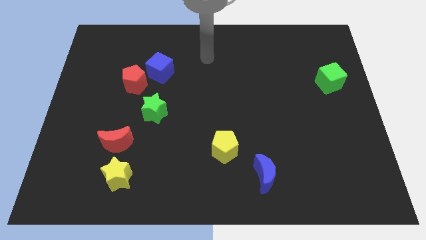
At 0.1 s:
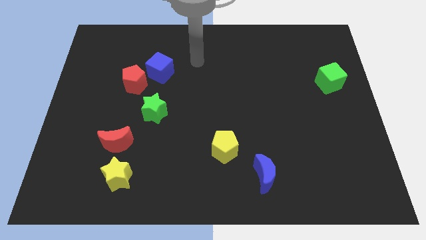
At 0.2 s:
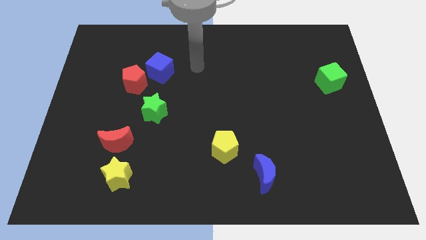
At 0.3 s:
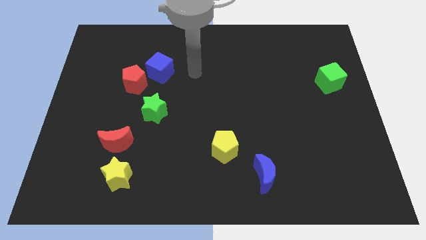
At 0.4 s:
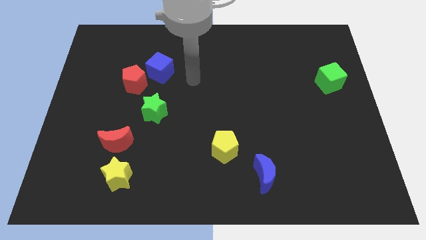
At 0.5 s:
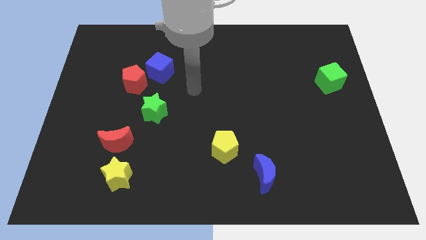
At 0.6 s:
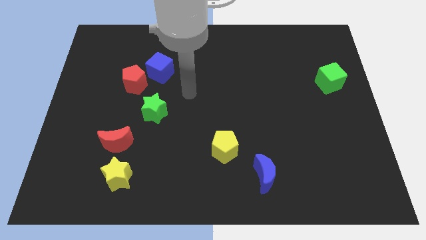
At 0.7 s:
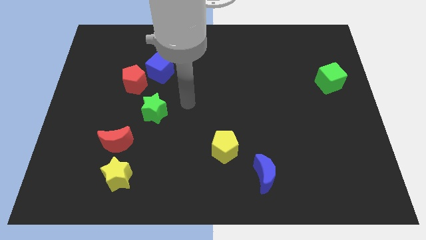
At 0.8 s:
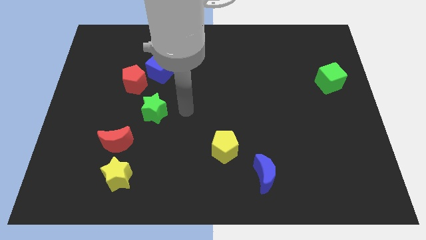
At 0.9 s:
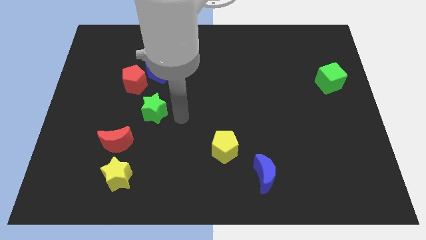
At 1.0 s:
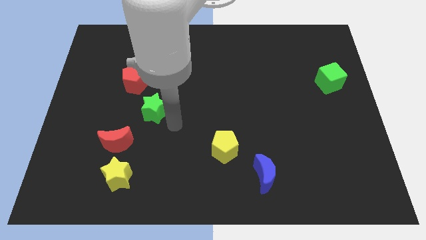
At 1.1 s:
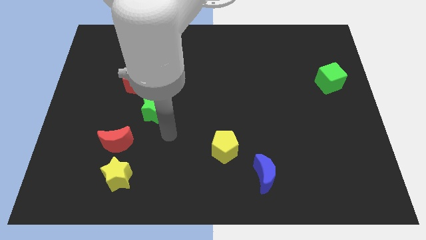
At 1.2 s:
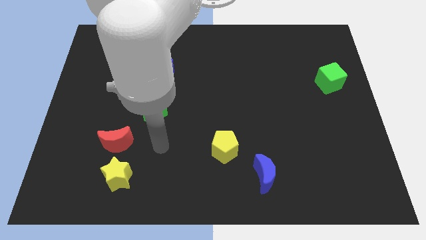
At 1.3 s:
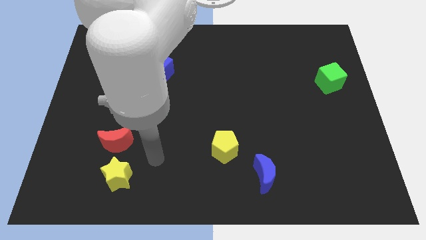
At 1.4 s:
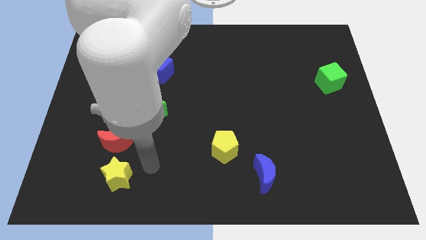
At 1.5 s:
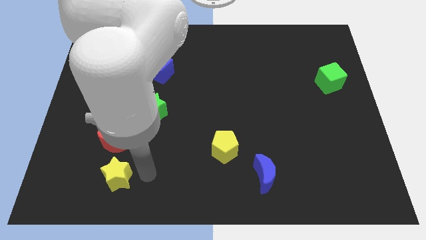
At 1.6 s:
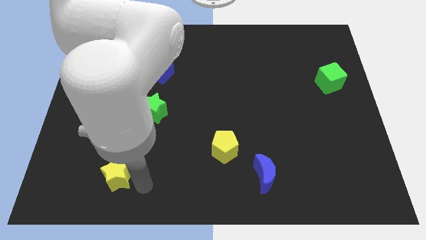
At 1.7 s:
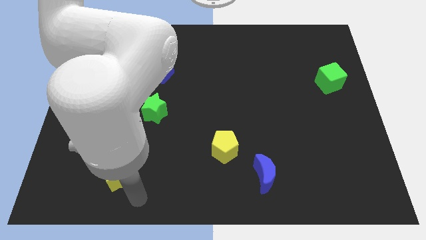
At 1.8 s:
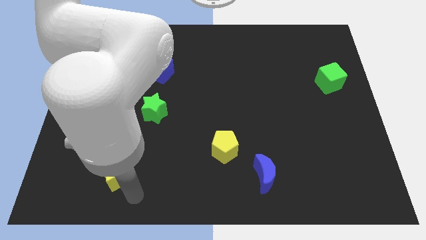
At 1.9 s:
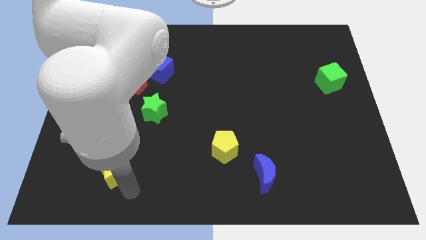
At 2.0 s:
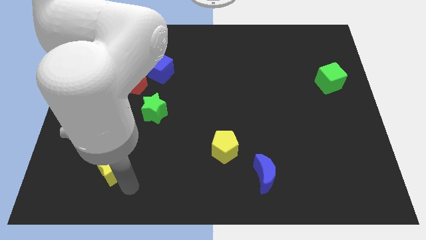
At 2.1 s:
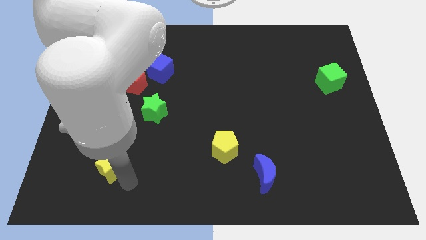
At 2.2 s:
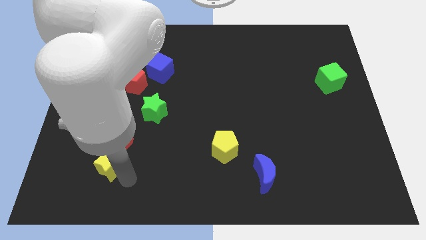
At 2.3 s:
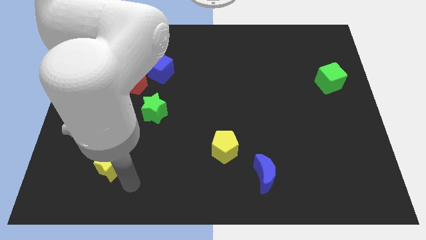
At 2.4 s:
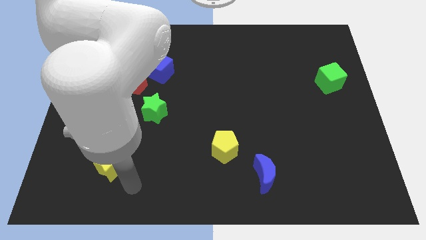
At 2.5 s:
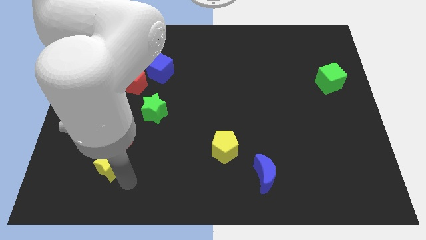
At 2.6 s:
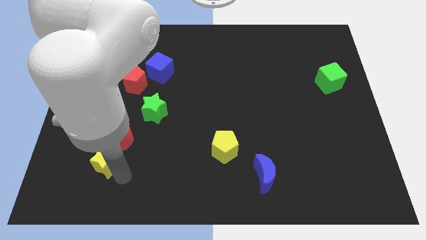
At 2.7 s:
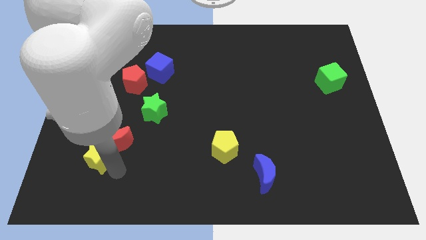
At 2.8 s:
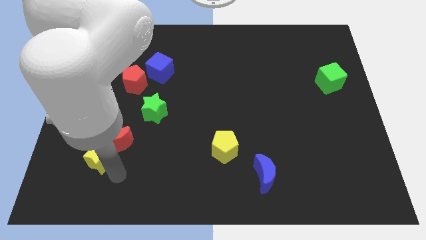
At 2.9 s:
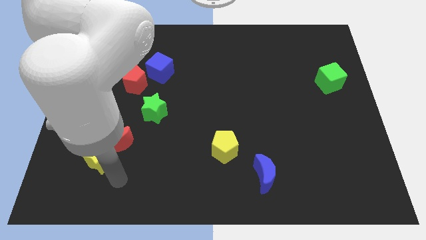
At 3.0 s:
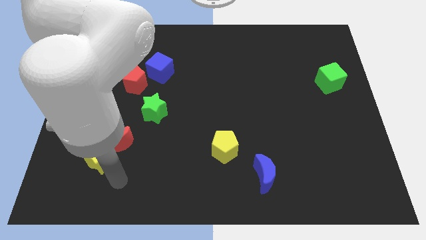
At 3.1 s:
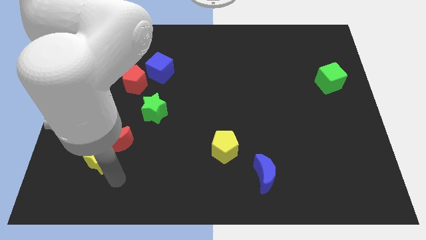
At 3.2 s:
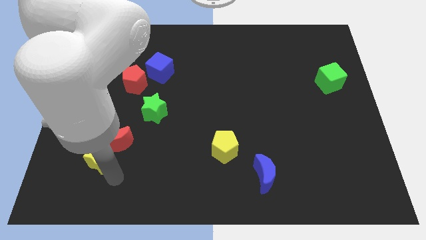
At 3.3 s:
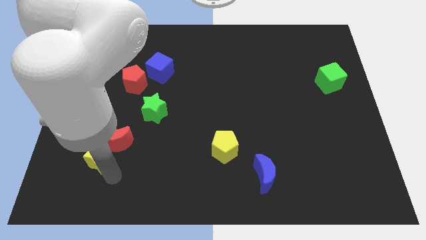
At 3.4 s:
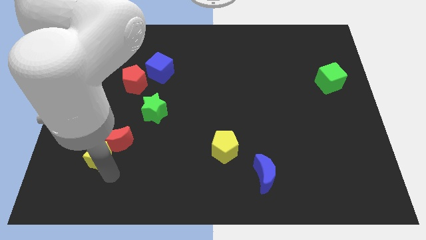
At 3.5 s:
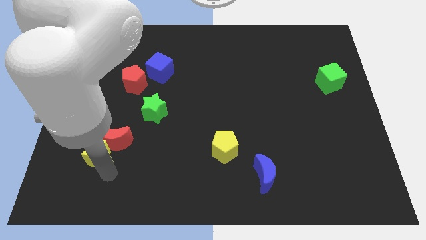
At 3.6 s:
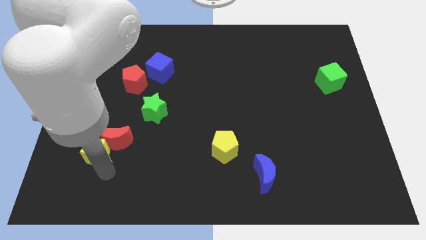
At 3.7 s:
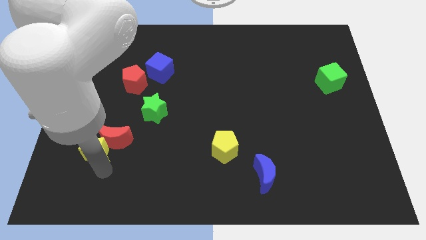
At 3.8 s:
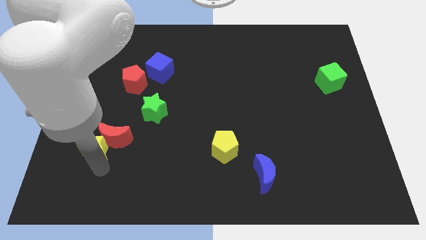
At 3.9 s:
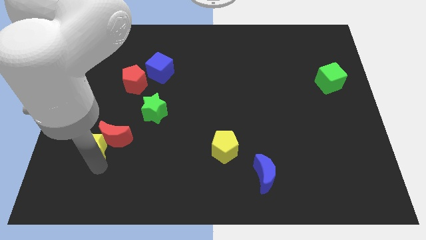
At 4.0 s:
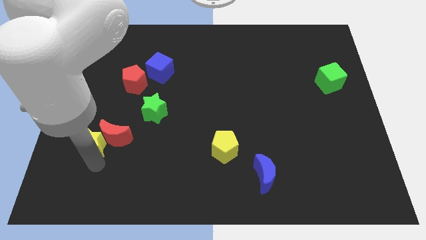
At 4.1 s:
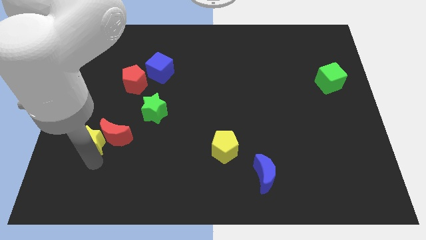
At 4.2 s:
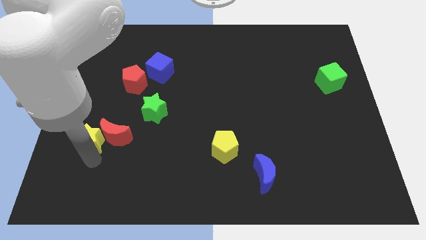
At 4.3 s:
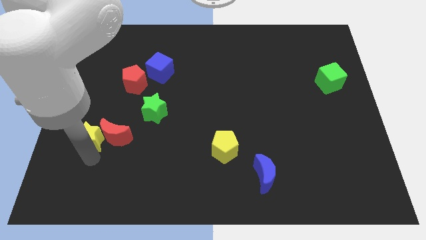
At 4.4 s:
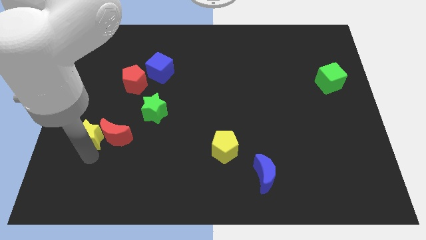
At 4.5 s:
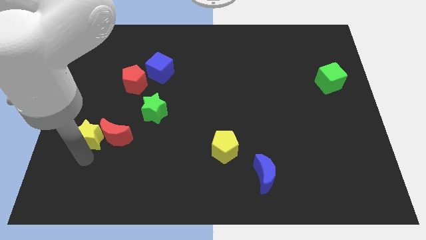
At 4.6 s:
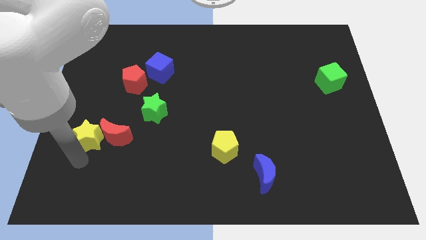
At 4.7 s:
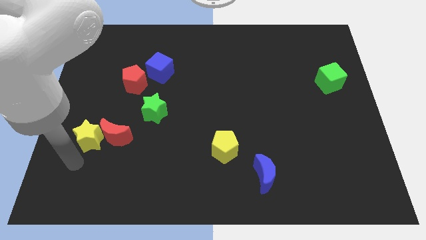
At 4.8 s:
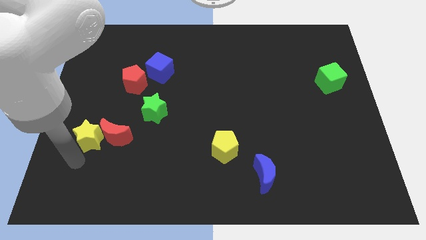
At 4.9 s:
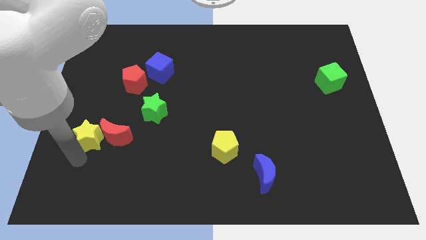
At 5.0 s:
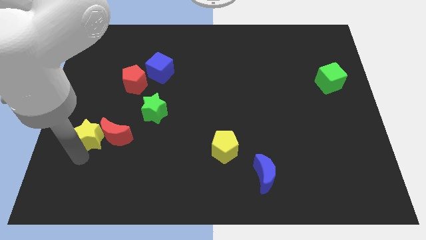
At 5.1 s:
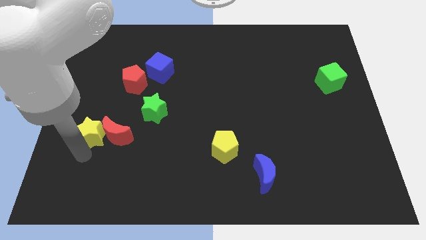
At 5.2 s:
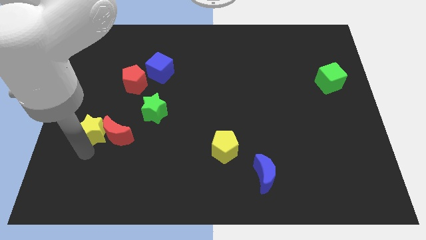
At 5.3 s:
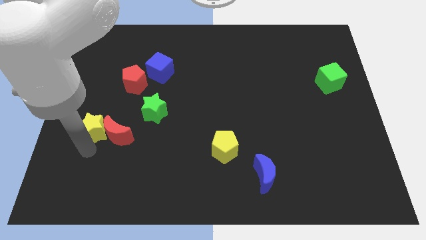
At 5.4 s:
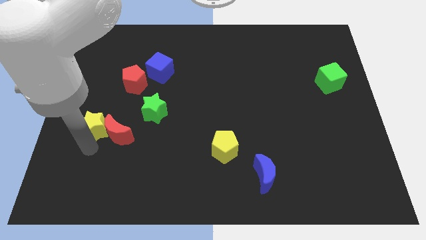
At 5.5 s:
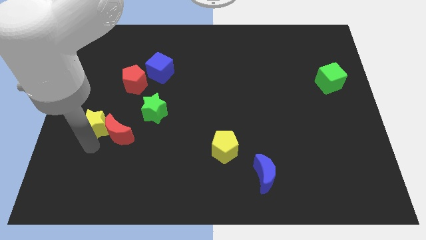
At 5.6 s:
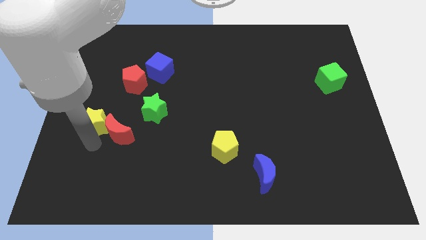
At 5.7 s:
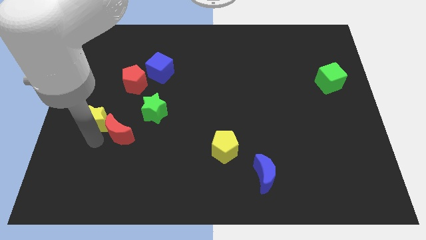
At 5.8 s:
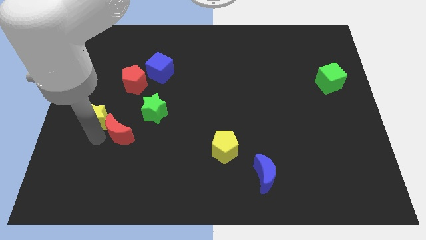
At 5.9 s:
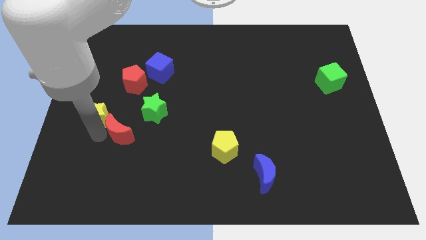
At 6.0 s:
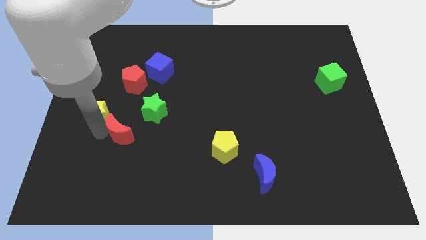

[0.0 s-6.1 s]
put the yellow star diagonally down and to the left of the red pentagon
